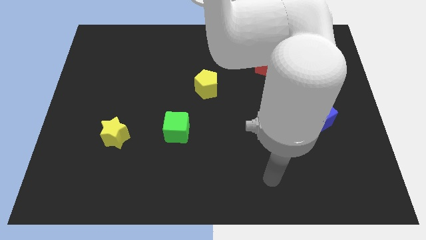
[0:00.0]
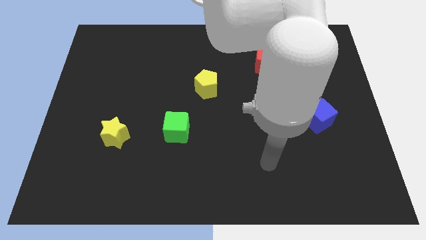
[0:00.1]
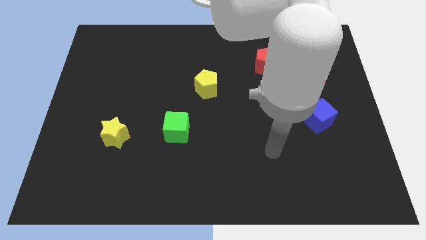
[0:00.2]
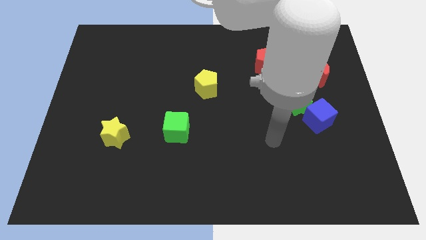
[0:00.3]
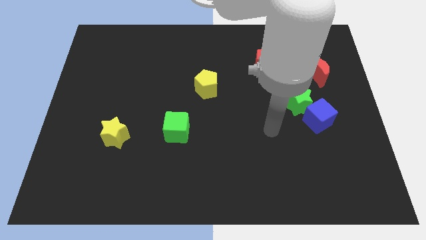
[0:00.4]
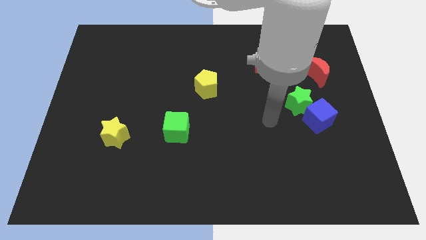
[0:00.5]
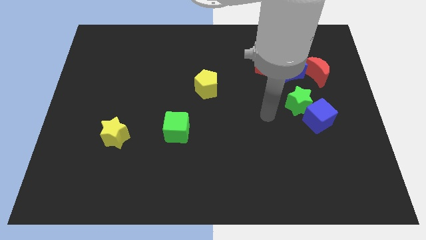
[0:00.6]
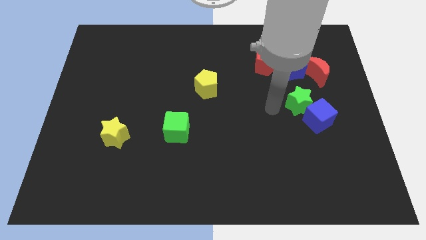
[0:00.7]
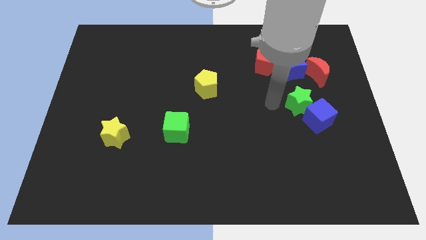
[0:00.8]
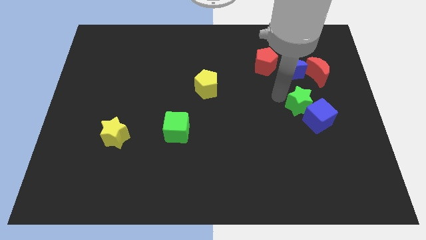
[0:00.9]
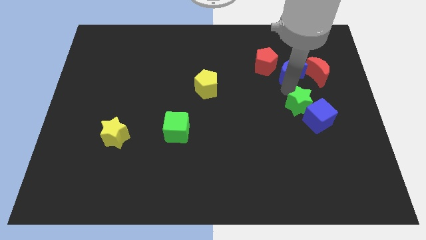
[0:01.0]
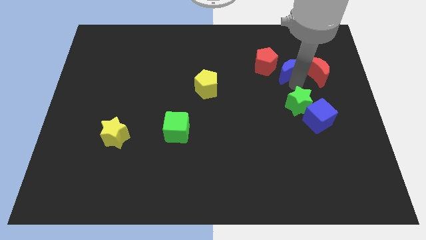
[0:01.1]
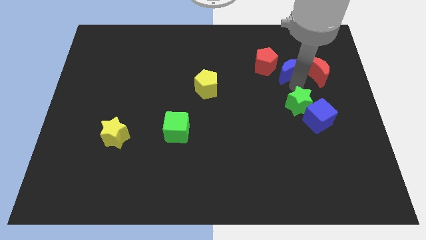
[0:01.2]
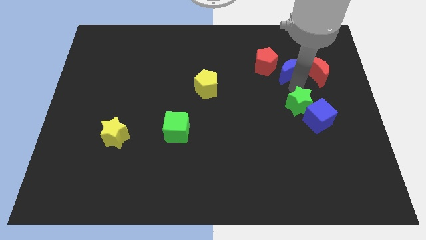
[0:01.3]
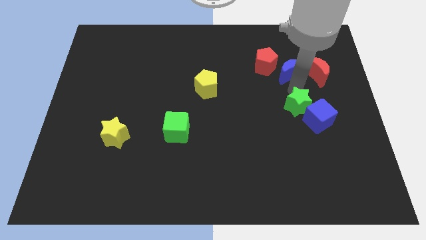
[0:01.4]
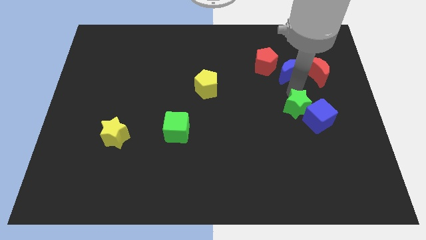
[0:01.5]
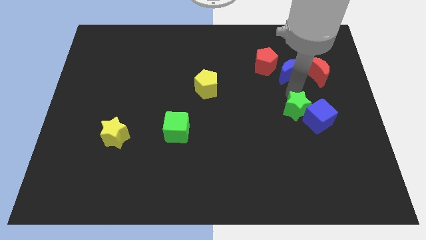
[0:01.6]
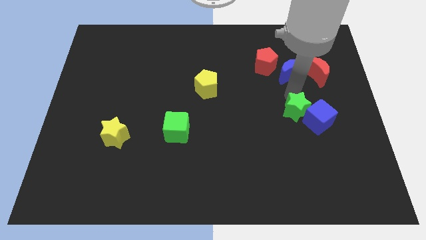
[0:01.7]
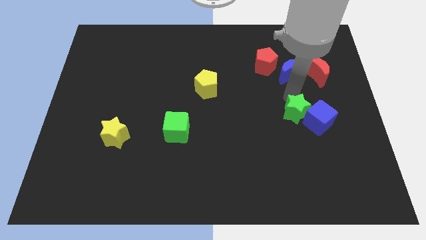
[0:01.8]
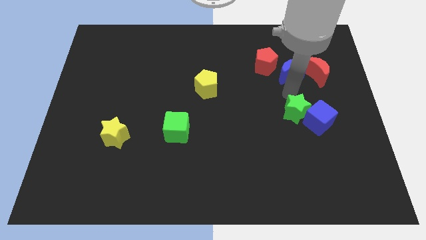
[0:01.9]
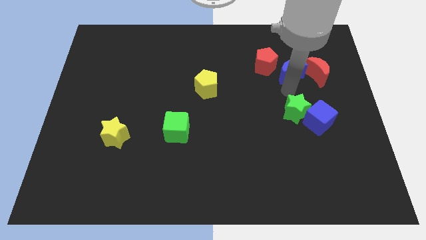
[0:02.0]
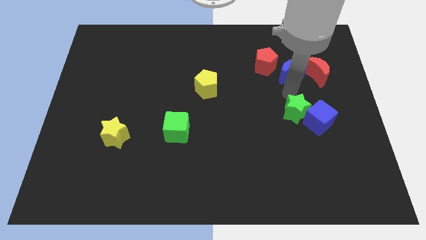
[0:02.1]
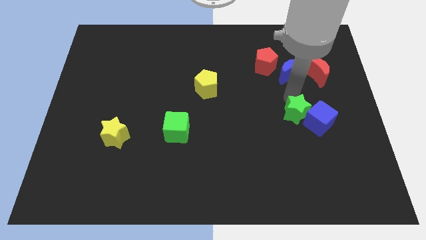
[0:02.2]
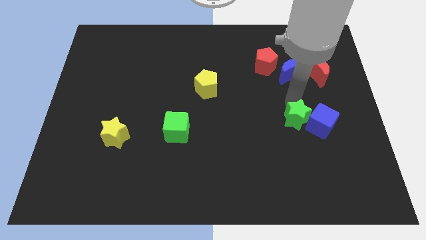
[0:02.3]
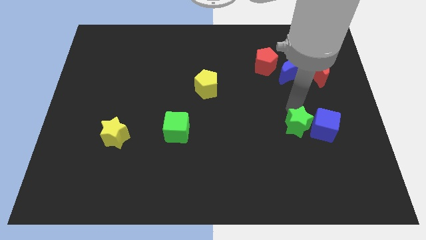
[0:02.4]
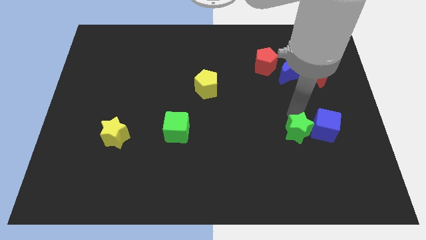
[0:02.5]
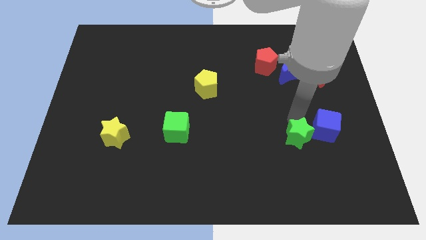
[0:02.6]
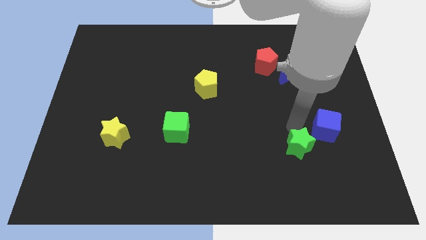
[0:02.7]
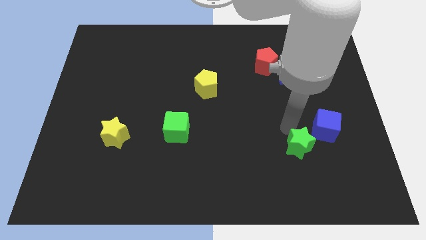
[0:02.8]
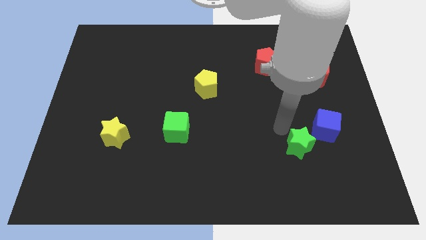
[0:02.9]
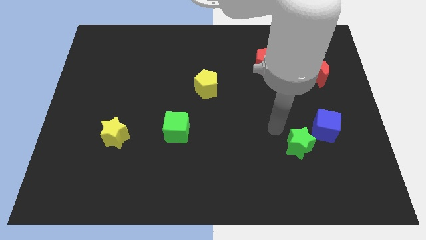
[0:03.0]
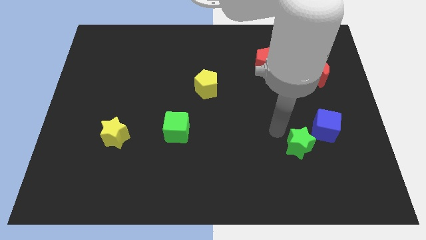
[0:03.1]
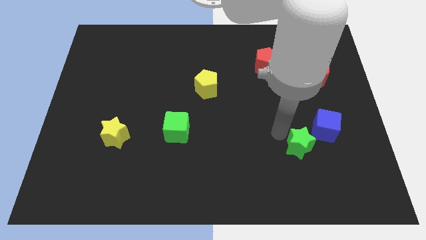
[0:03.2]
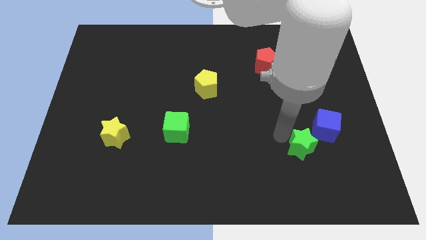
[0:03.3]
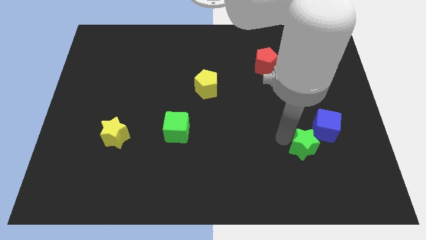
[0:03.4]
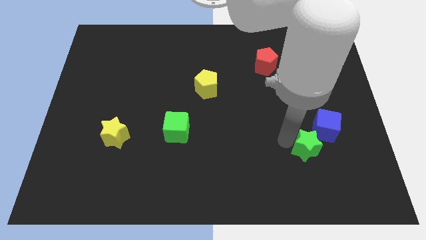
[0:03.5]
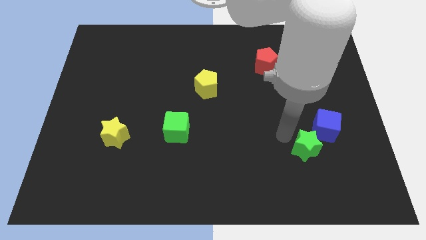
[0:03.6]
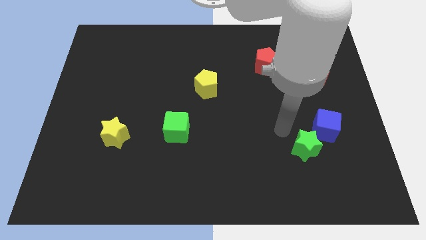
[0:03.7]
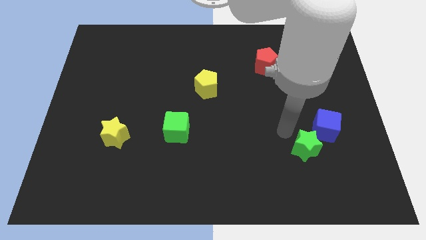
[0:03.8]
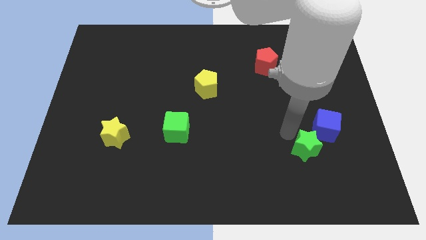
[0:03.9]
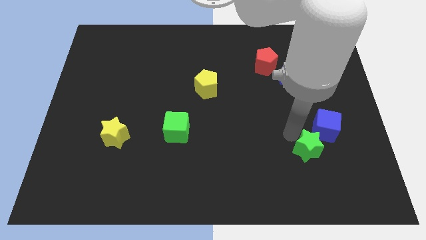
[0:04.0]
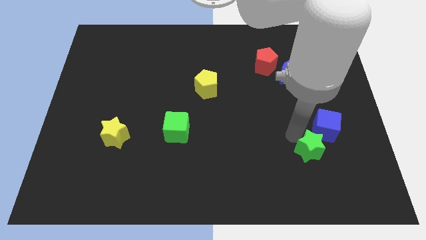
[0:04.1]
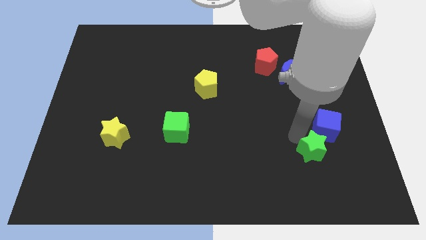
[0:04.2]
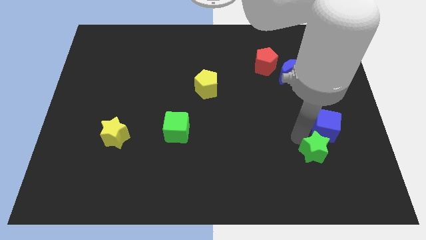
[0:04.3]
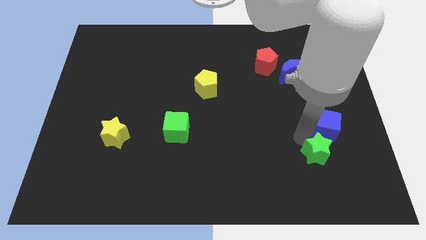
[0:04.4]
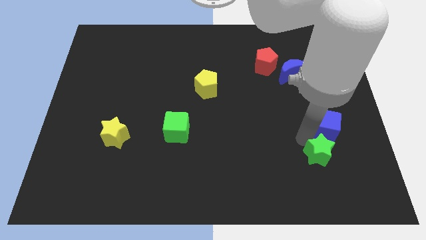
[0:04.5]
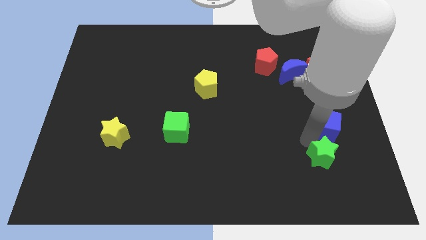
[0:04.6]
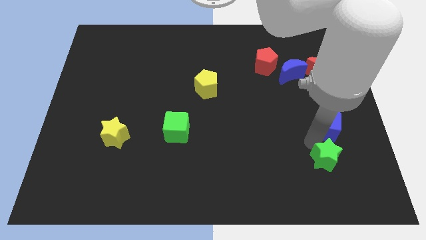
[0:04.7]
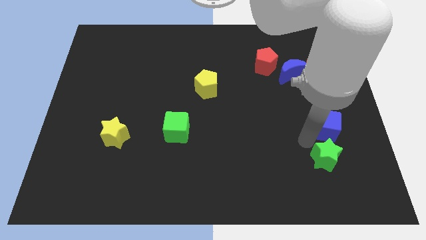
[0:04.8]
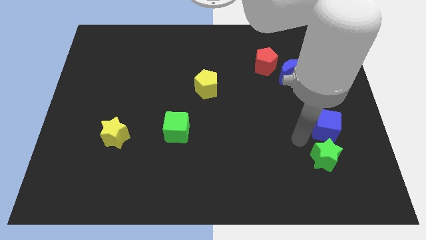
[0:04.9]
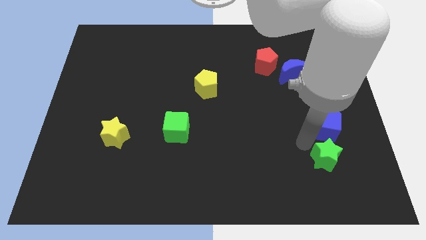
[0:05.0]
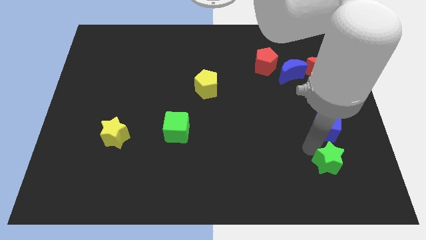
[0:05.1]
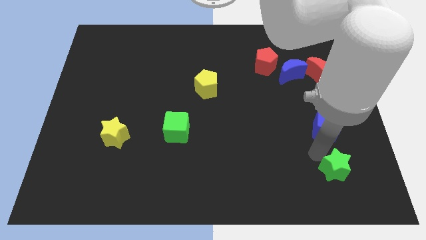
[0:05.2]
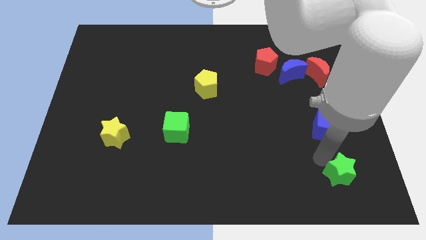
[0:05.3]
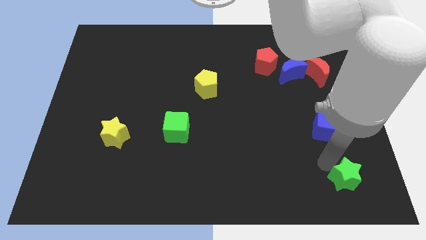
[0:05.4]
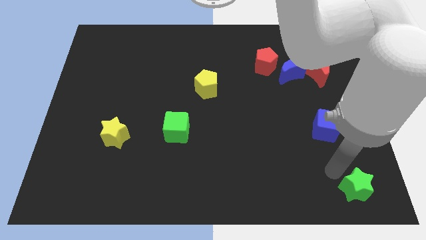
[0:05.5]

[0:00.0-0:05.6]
put the green star to the bottom right of the board

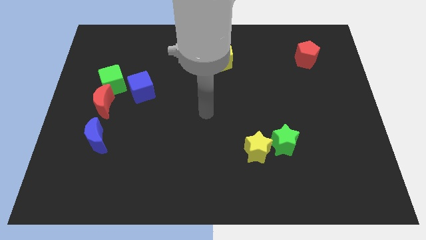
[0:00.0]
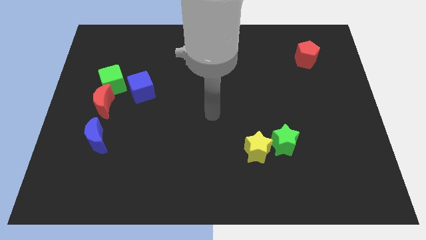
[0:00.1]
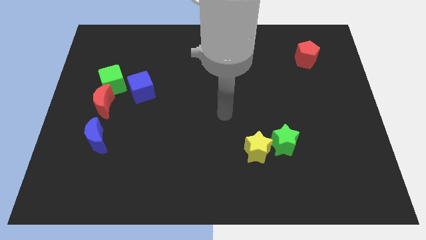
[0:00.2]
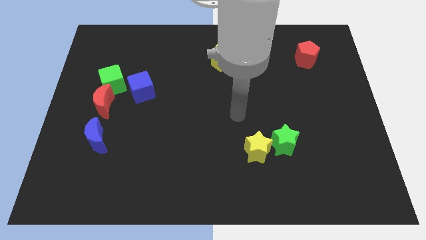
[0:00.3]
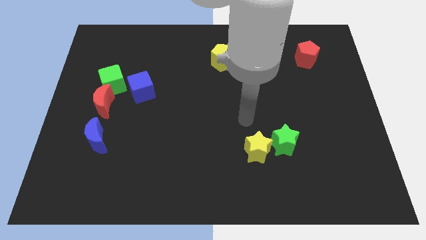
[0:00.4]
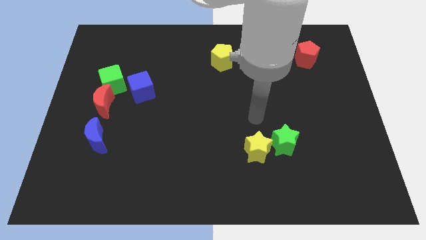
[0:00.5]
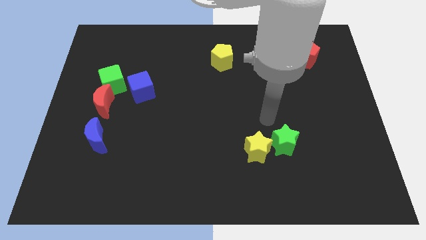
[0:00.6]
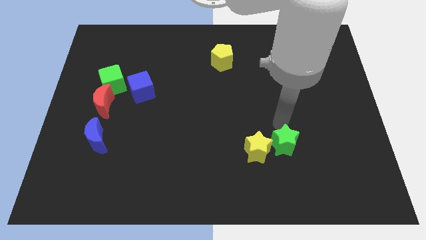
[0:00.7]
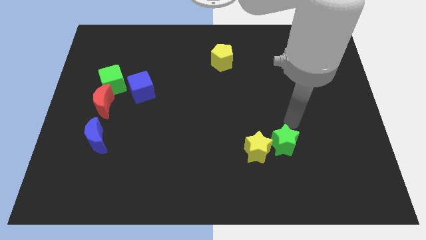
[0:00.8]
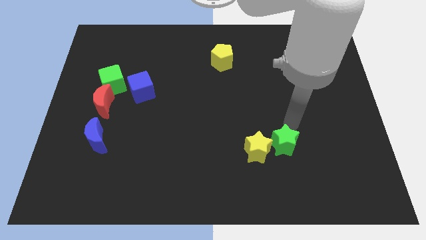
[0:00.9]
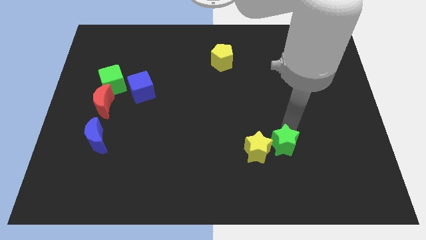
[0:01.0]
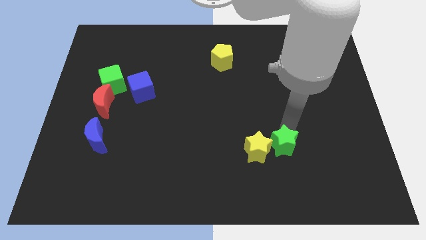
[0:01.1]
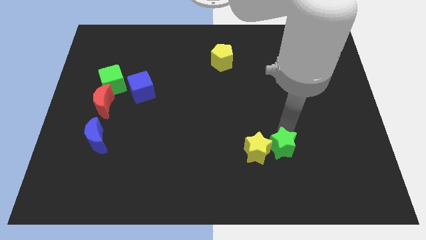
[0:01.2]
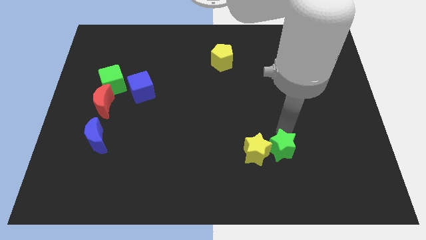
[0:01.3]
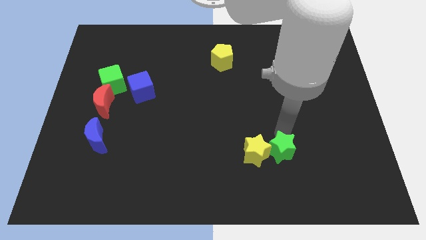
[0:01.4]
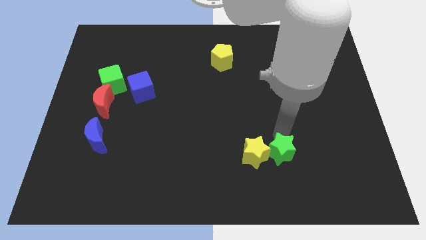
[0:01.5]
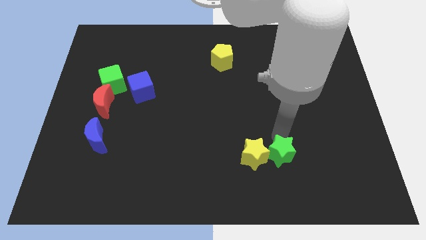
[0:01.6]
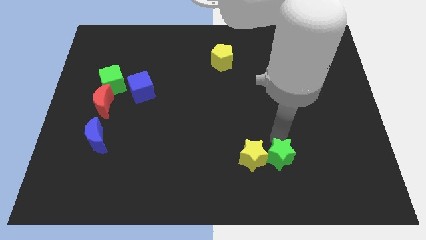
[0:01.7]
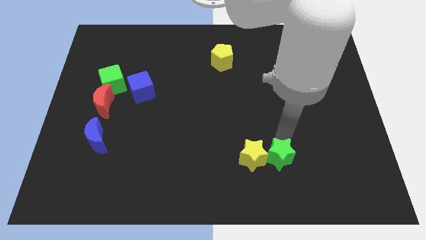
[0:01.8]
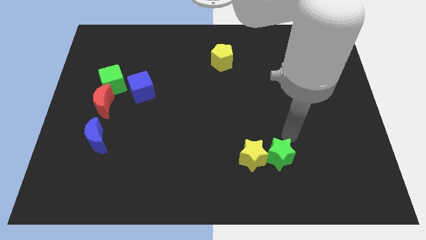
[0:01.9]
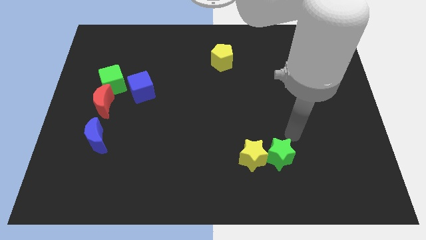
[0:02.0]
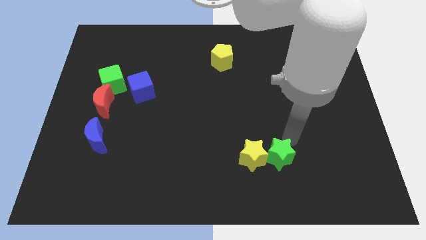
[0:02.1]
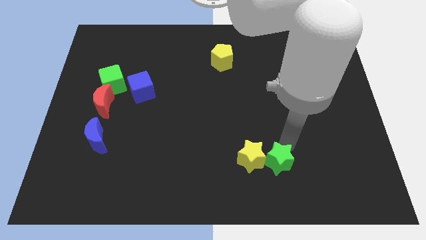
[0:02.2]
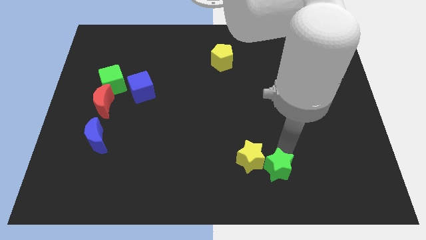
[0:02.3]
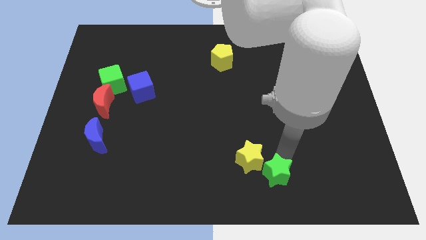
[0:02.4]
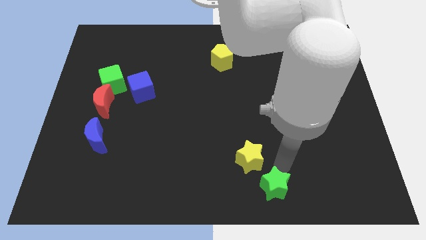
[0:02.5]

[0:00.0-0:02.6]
put the green star to the bottom
